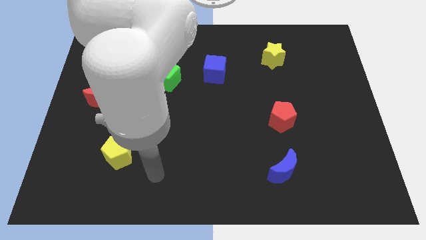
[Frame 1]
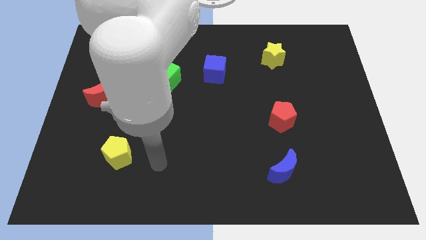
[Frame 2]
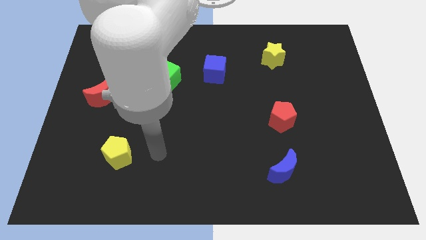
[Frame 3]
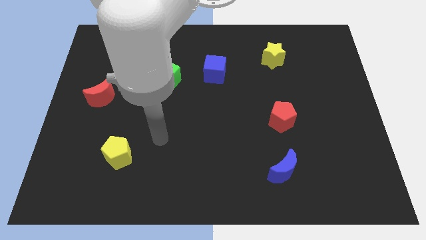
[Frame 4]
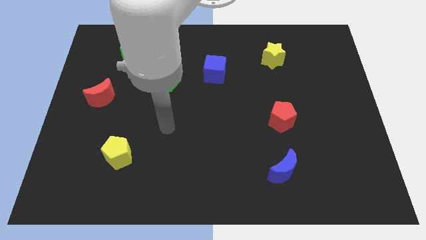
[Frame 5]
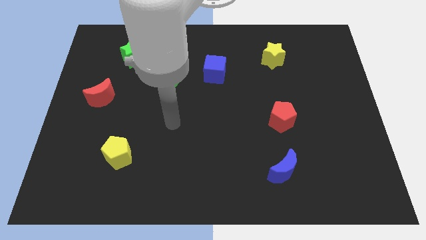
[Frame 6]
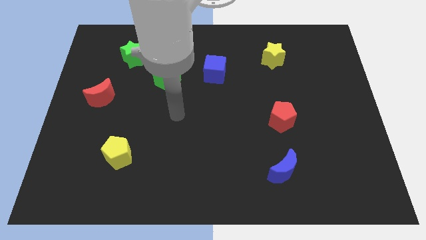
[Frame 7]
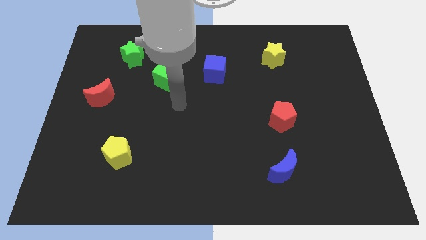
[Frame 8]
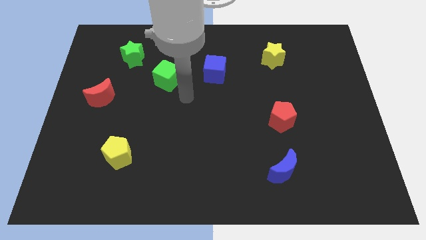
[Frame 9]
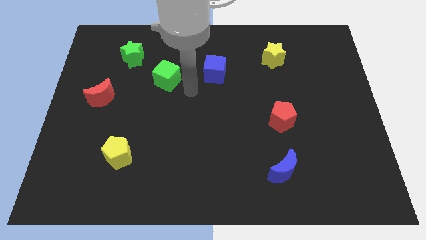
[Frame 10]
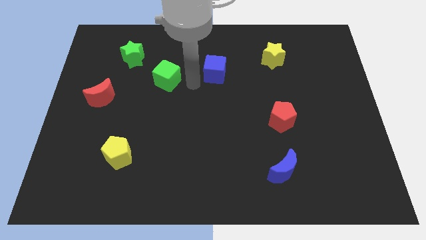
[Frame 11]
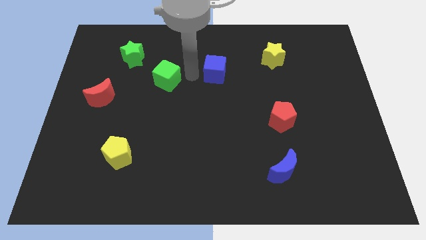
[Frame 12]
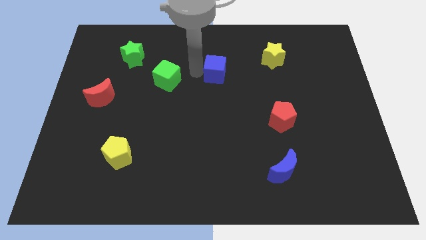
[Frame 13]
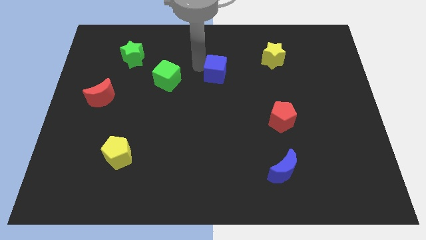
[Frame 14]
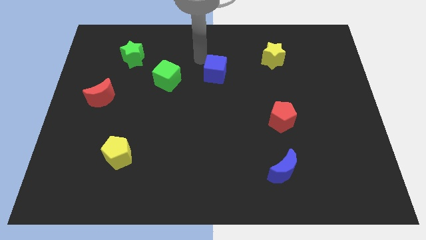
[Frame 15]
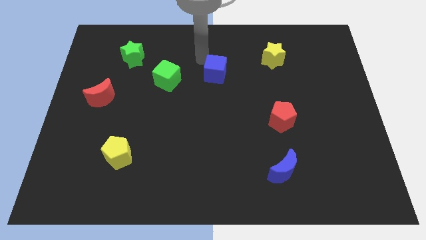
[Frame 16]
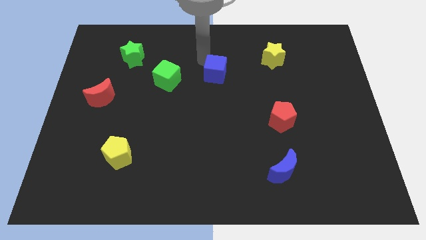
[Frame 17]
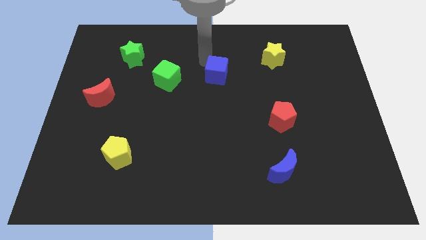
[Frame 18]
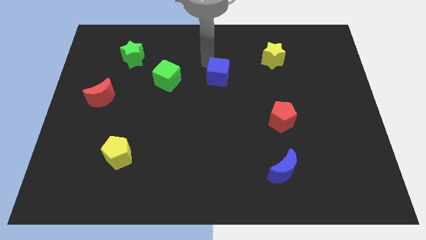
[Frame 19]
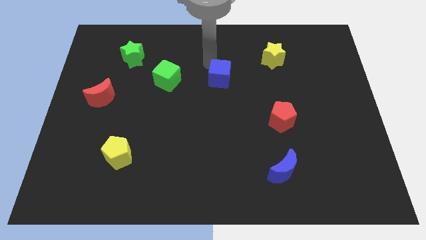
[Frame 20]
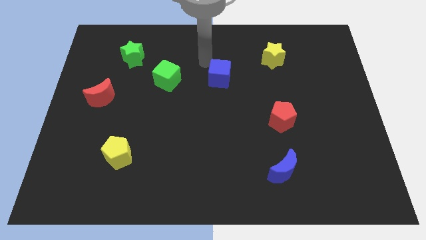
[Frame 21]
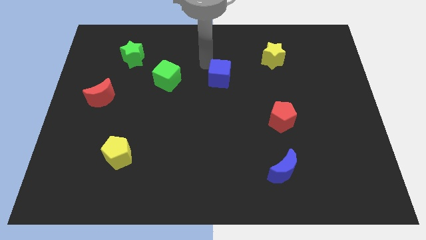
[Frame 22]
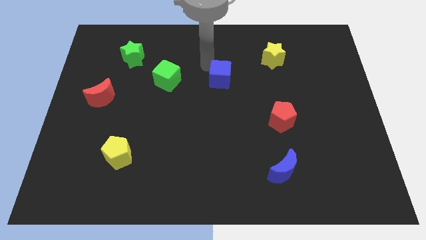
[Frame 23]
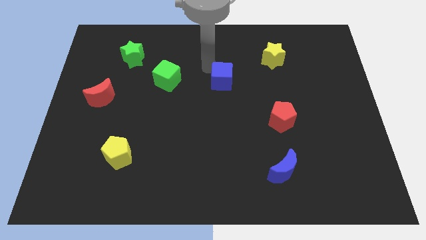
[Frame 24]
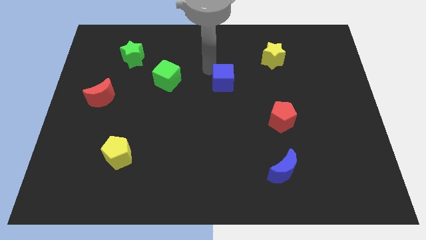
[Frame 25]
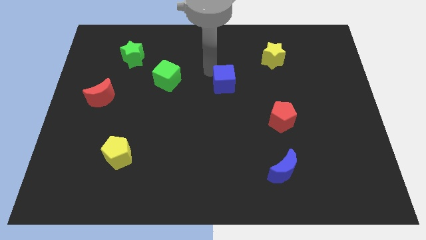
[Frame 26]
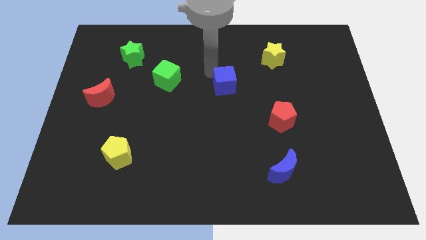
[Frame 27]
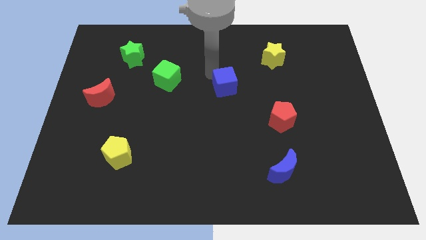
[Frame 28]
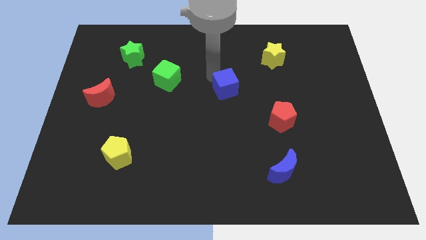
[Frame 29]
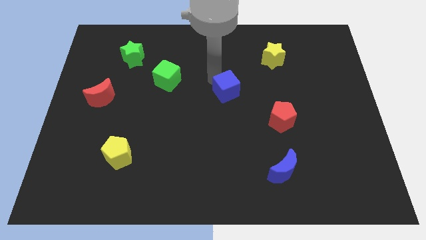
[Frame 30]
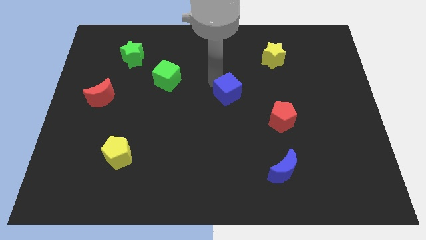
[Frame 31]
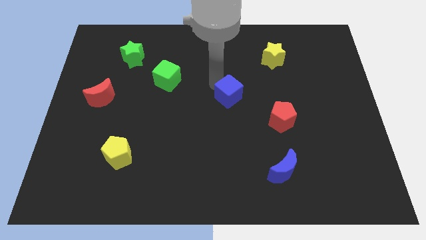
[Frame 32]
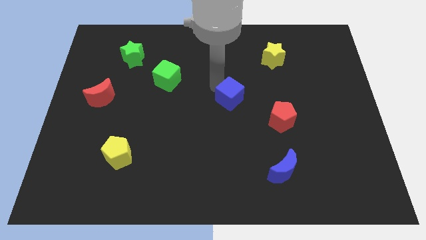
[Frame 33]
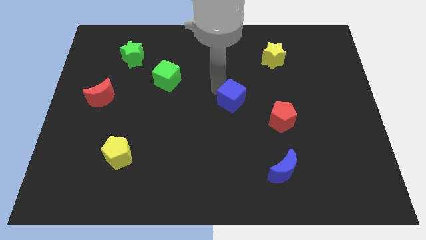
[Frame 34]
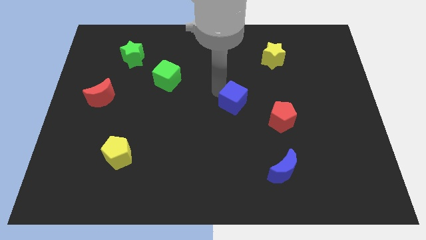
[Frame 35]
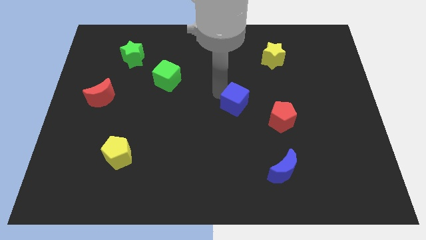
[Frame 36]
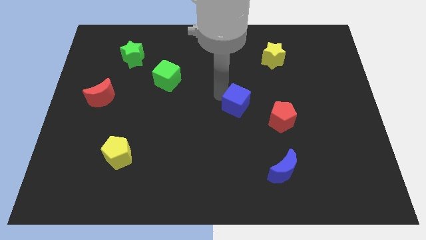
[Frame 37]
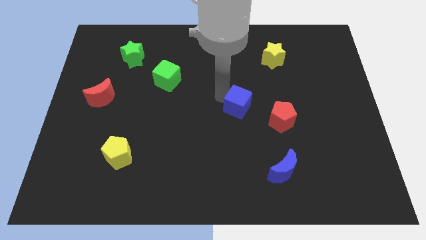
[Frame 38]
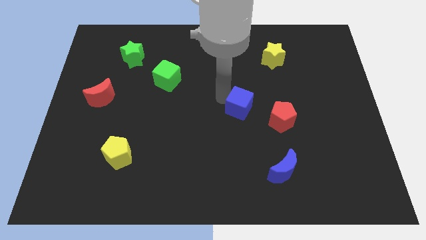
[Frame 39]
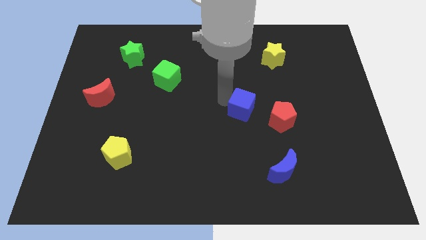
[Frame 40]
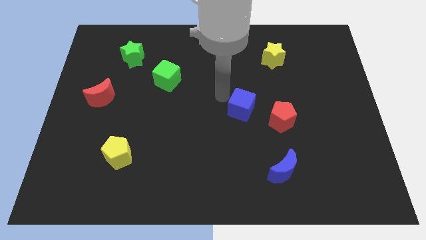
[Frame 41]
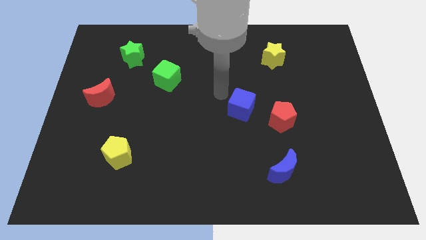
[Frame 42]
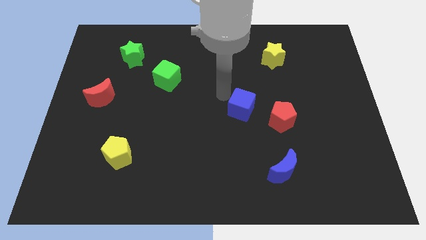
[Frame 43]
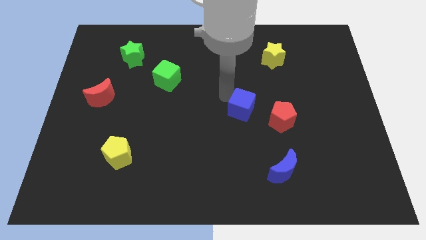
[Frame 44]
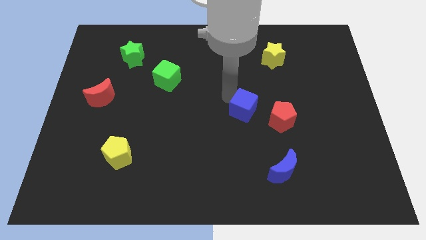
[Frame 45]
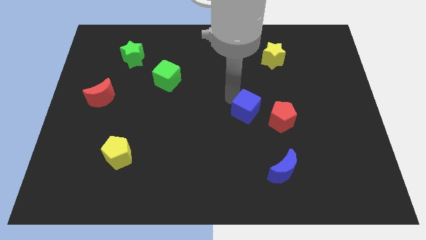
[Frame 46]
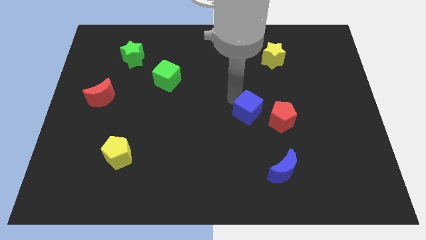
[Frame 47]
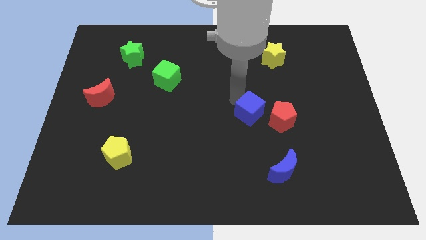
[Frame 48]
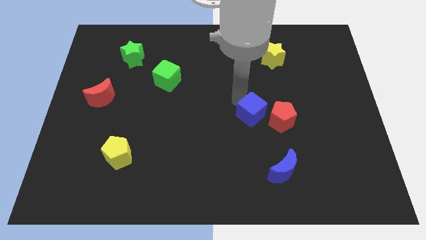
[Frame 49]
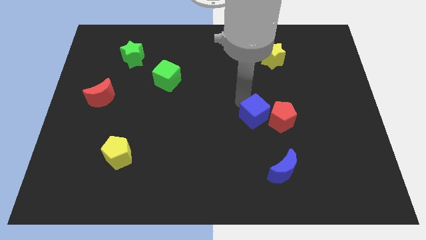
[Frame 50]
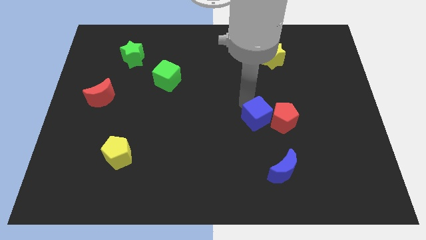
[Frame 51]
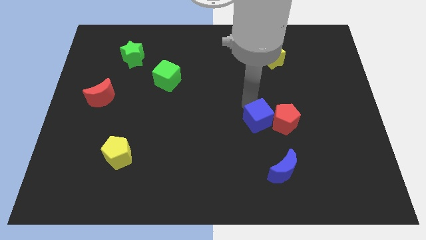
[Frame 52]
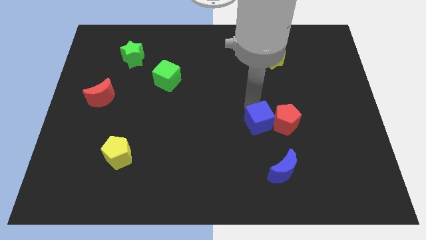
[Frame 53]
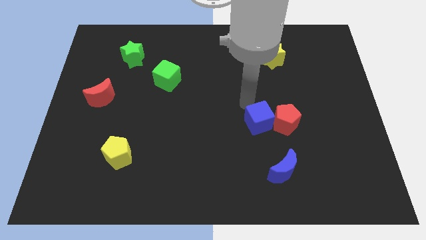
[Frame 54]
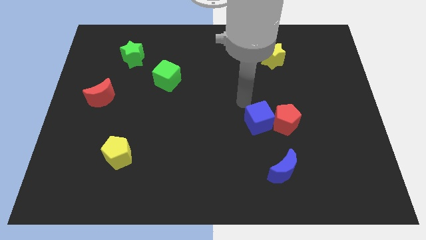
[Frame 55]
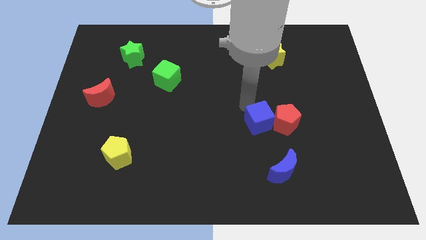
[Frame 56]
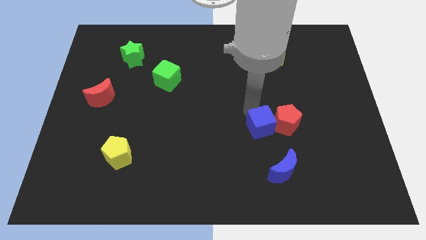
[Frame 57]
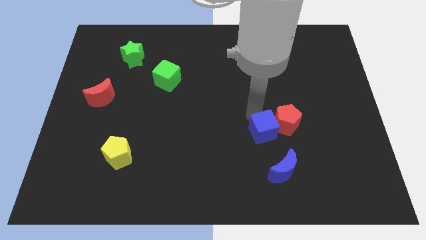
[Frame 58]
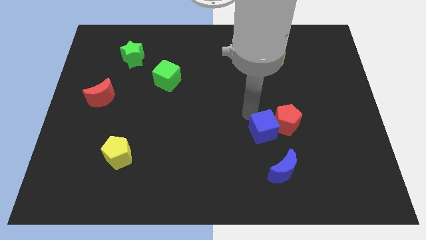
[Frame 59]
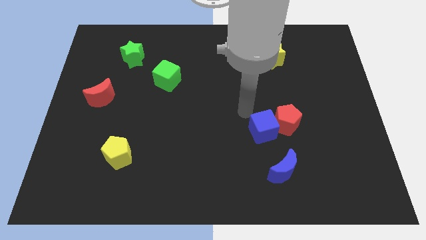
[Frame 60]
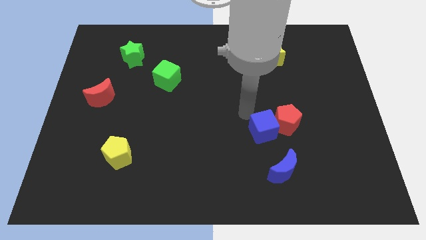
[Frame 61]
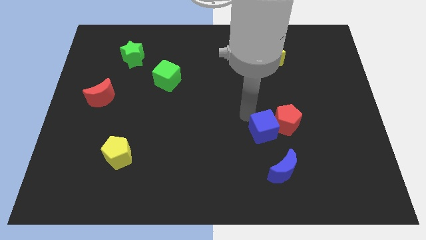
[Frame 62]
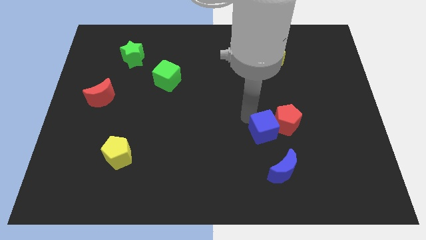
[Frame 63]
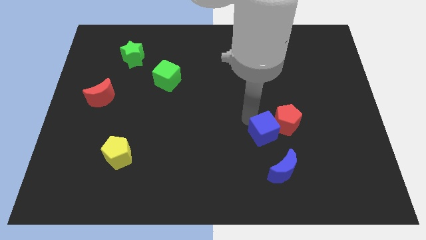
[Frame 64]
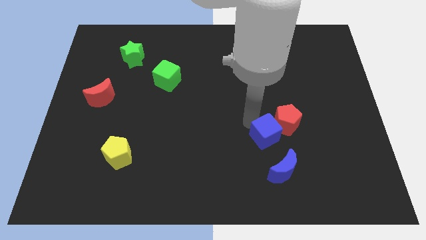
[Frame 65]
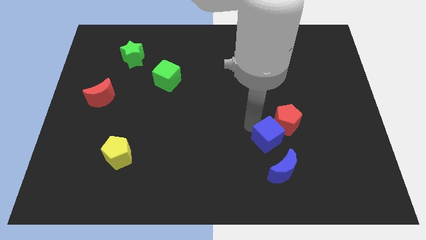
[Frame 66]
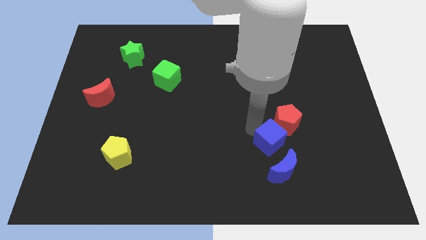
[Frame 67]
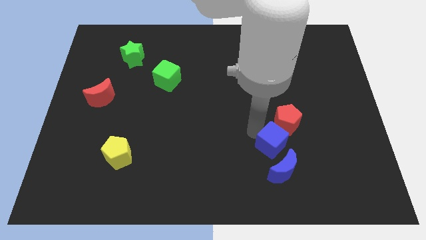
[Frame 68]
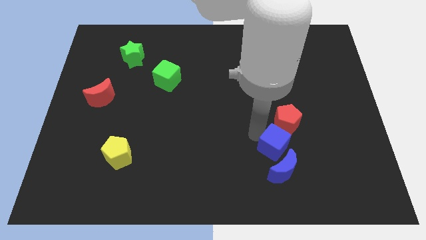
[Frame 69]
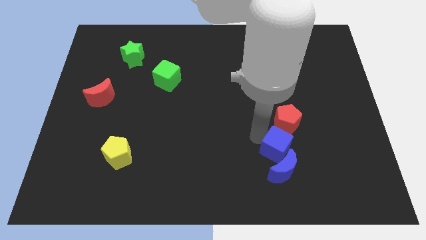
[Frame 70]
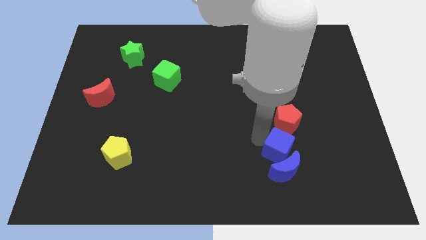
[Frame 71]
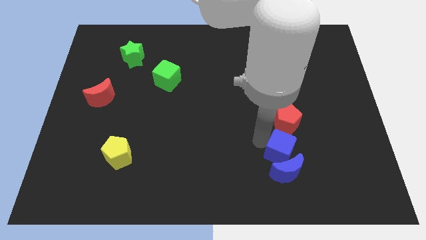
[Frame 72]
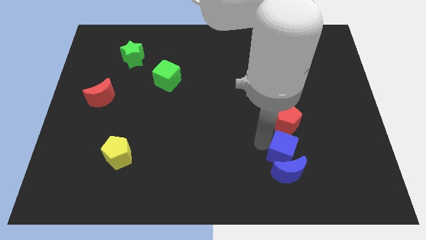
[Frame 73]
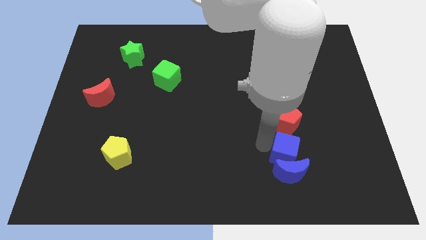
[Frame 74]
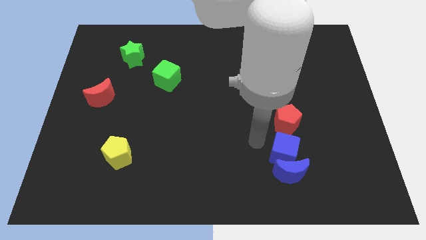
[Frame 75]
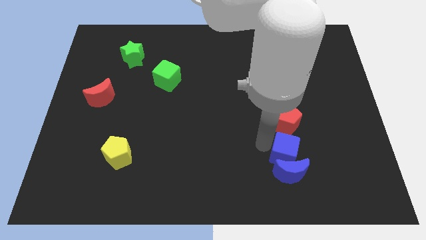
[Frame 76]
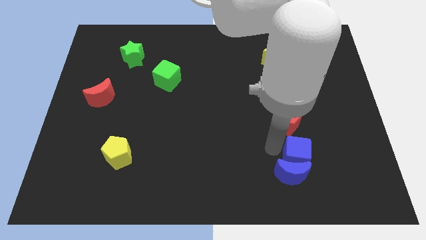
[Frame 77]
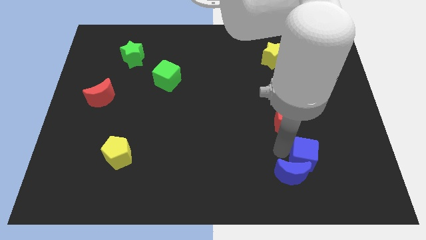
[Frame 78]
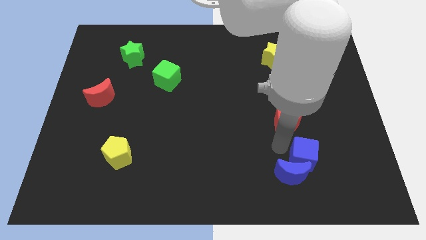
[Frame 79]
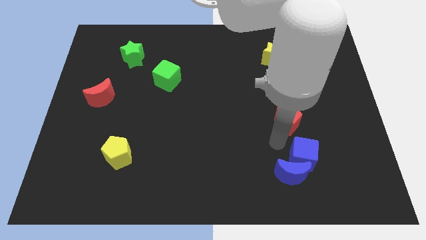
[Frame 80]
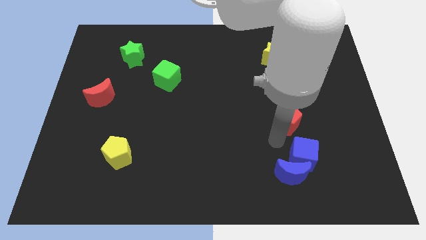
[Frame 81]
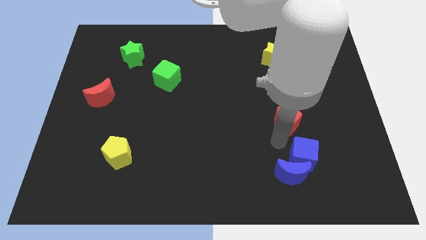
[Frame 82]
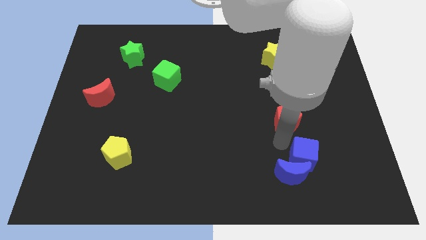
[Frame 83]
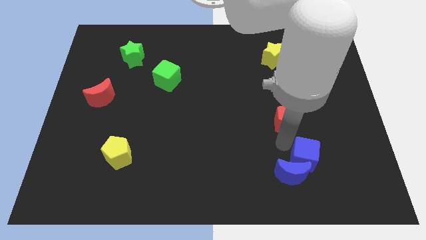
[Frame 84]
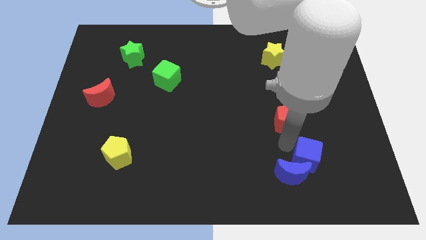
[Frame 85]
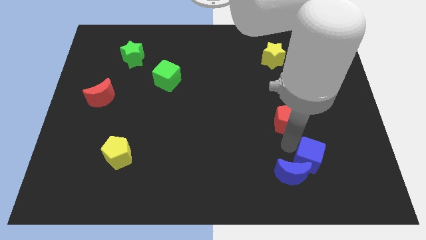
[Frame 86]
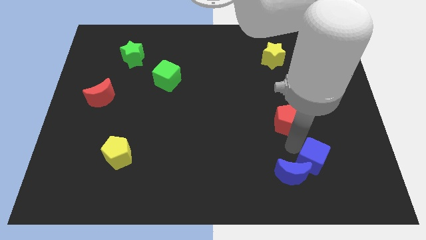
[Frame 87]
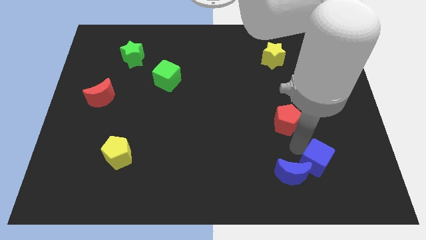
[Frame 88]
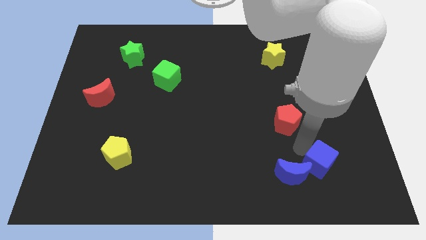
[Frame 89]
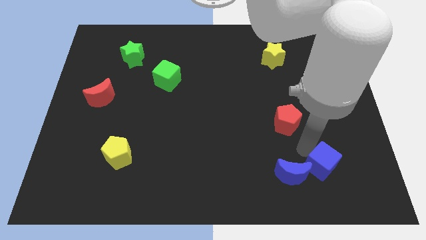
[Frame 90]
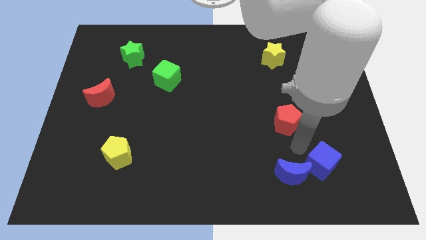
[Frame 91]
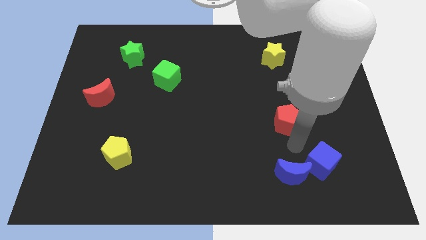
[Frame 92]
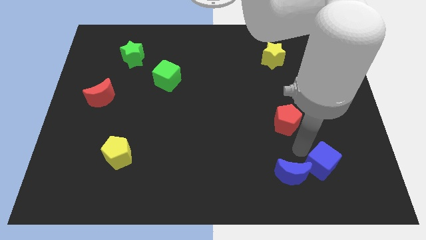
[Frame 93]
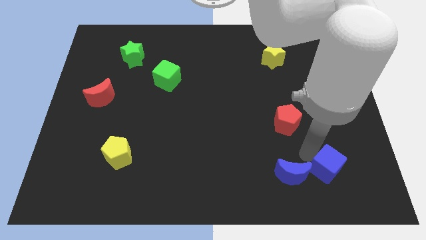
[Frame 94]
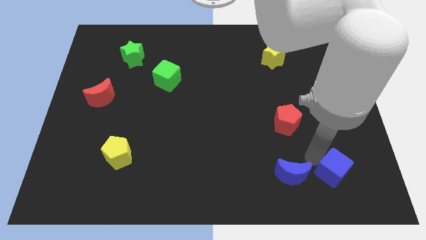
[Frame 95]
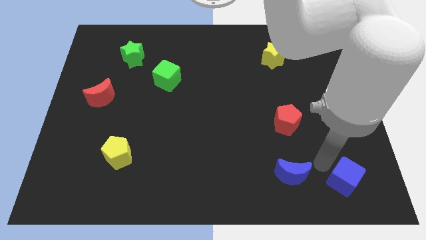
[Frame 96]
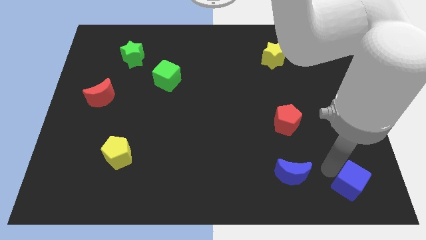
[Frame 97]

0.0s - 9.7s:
slide the blue cube to the bottom right corner
